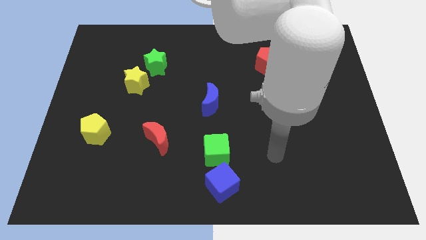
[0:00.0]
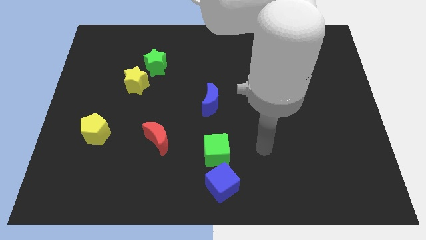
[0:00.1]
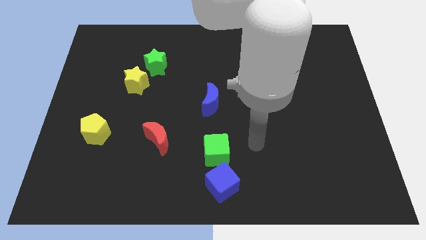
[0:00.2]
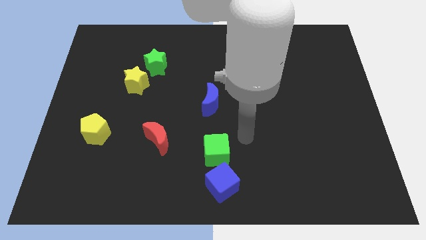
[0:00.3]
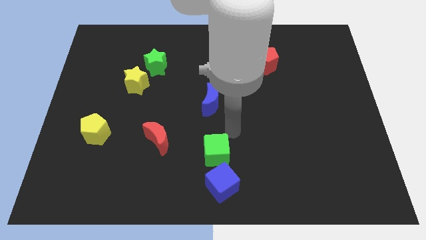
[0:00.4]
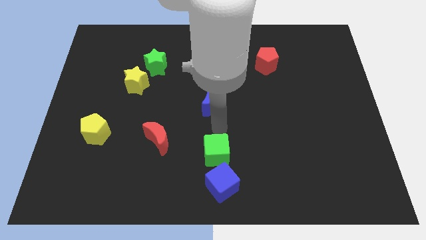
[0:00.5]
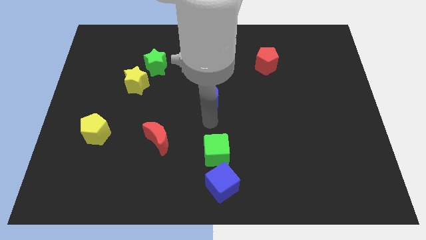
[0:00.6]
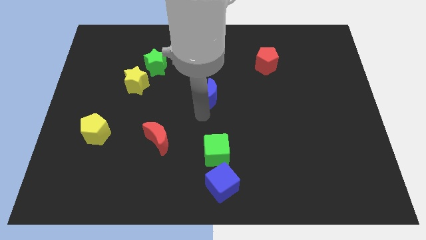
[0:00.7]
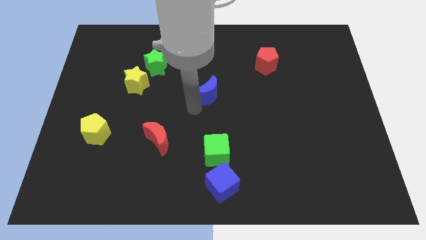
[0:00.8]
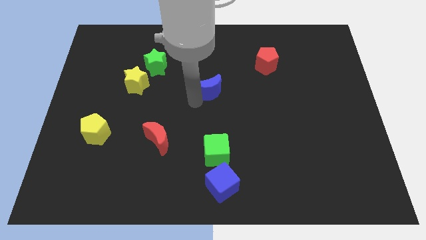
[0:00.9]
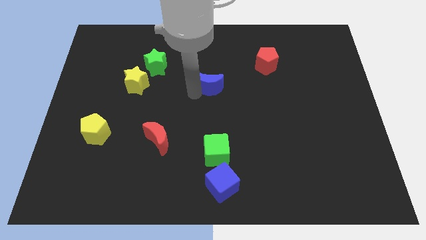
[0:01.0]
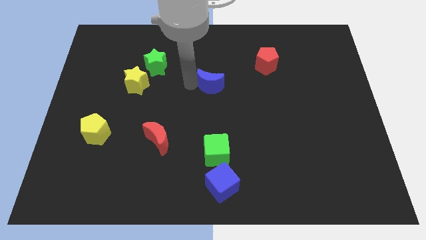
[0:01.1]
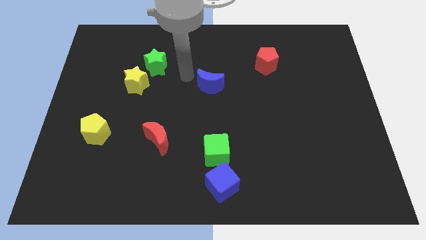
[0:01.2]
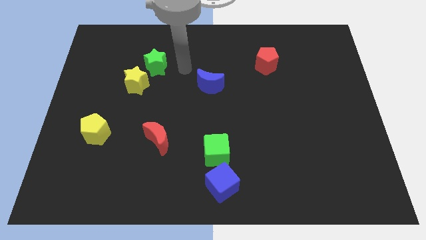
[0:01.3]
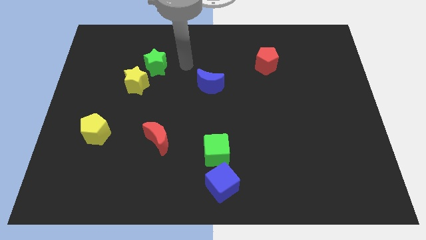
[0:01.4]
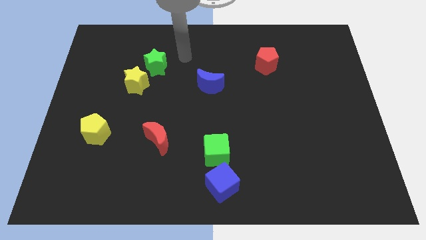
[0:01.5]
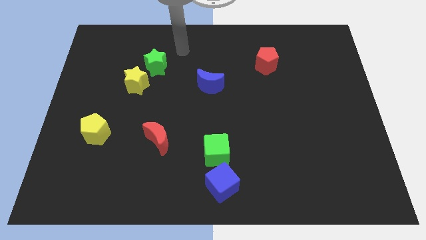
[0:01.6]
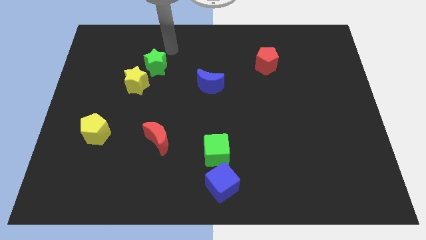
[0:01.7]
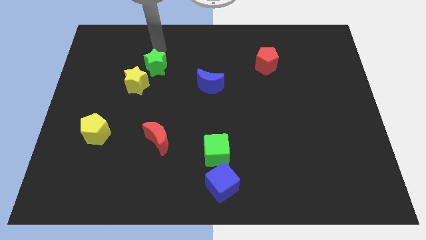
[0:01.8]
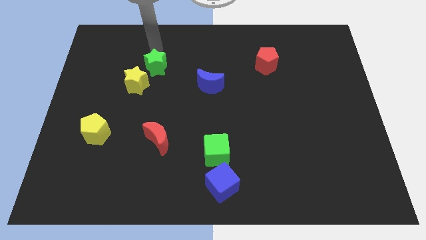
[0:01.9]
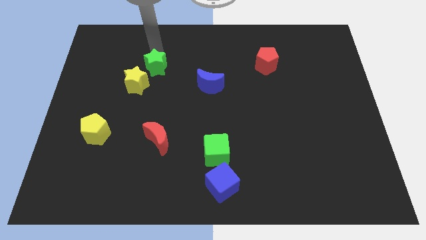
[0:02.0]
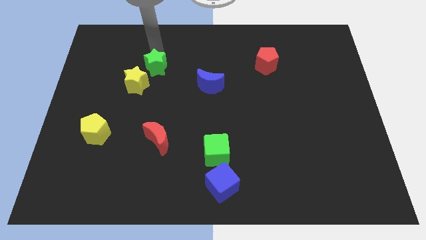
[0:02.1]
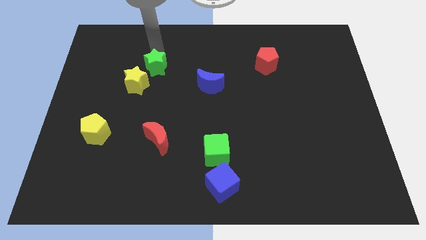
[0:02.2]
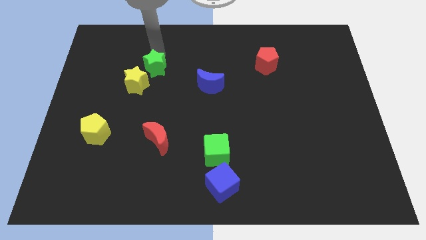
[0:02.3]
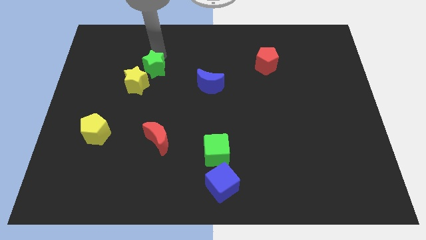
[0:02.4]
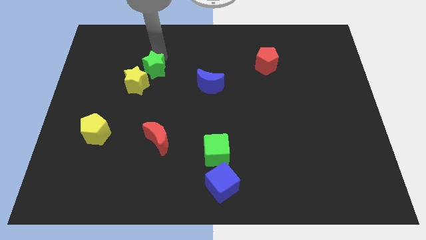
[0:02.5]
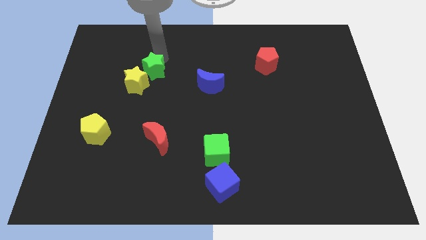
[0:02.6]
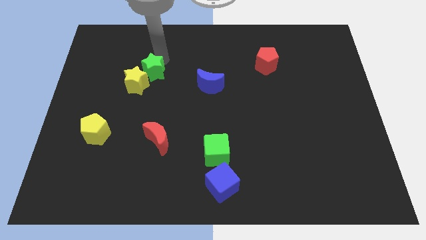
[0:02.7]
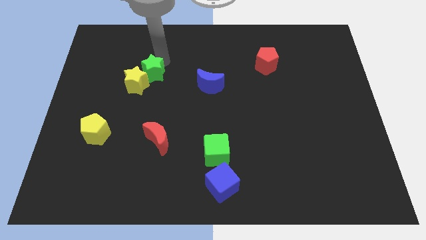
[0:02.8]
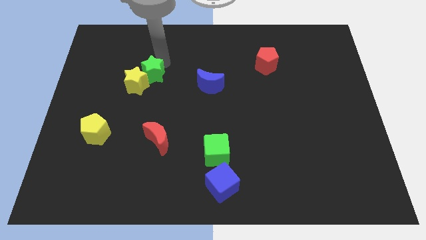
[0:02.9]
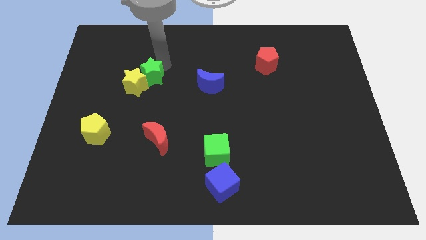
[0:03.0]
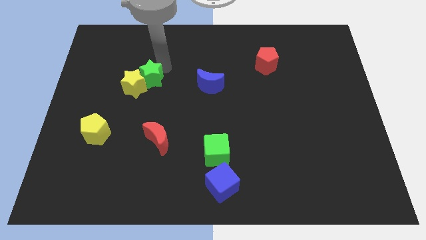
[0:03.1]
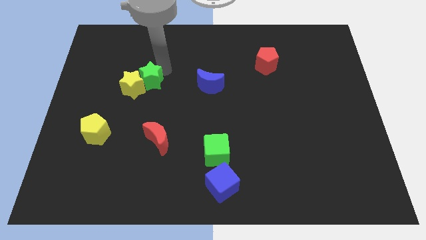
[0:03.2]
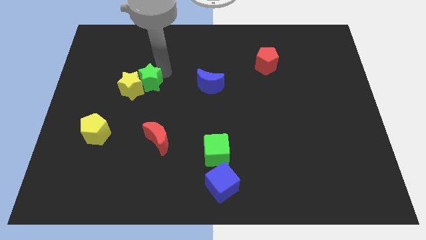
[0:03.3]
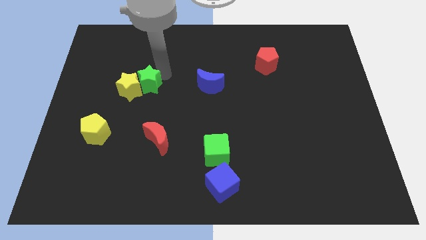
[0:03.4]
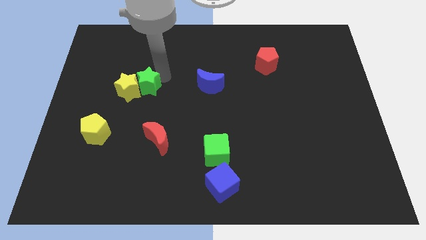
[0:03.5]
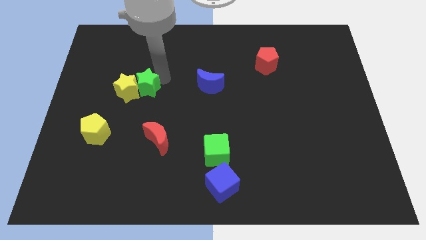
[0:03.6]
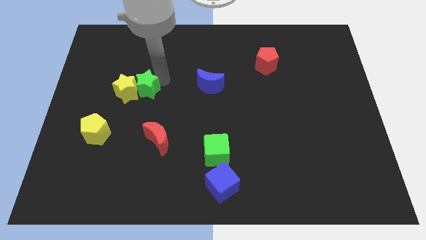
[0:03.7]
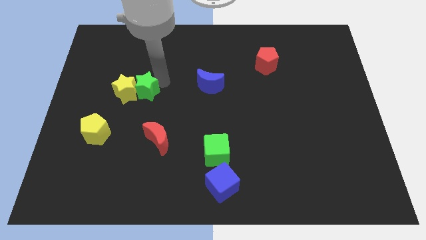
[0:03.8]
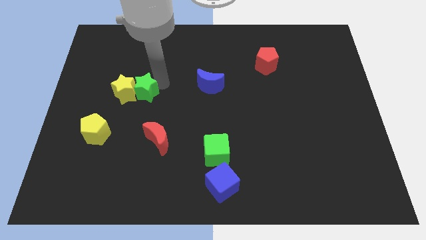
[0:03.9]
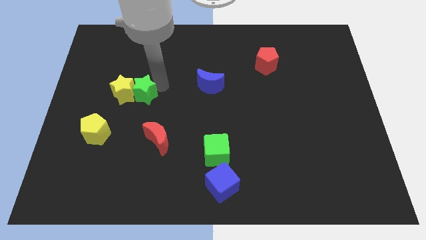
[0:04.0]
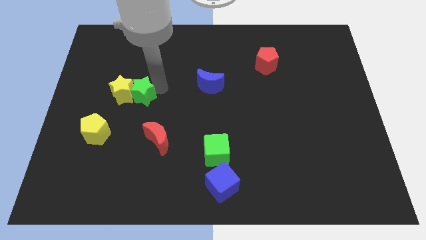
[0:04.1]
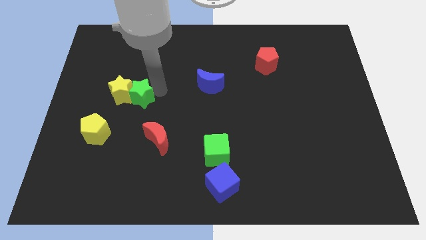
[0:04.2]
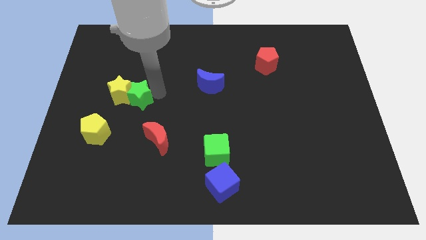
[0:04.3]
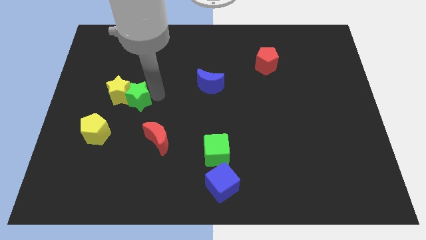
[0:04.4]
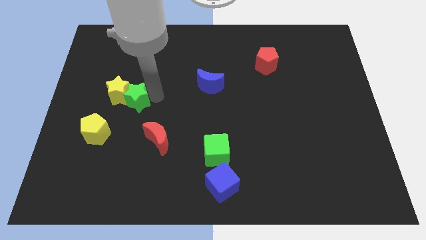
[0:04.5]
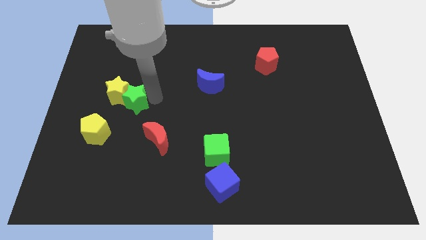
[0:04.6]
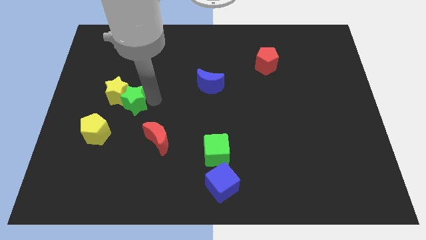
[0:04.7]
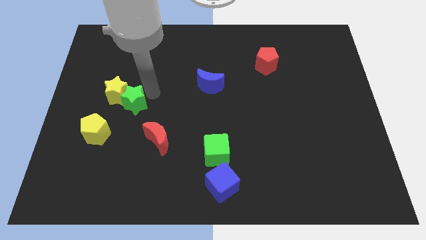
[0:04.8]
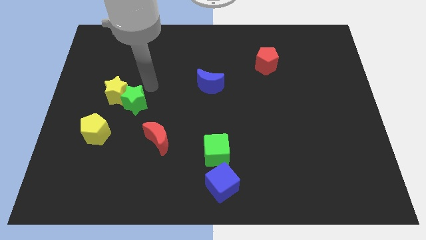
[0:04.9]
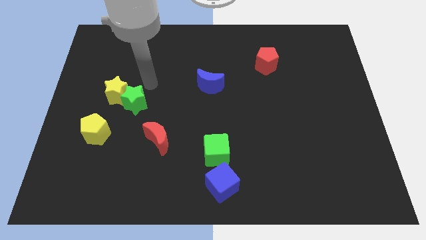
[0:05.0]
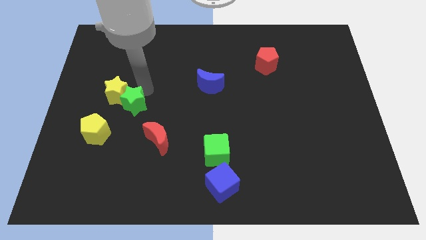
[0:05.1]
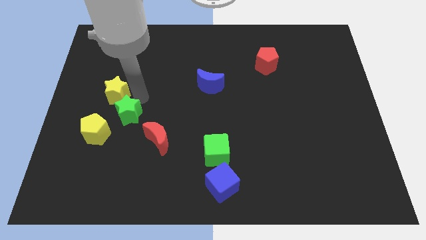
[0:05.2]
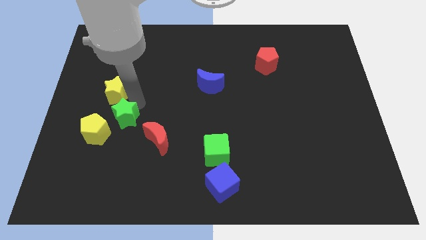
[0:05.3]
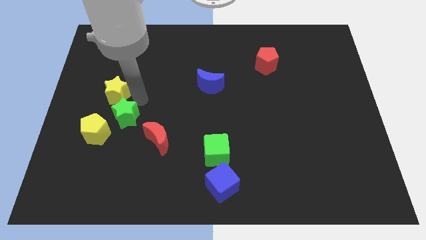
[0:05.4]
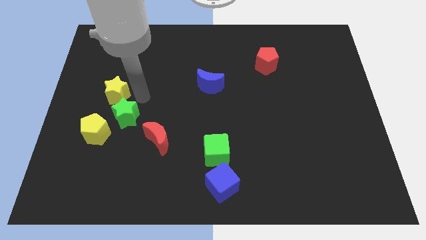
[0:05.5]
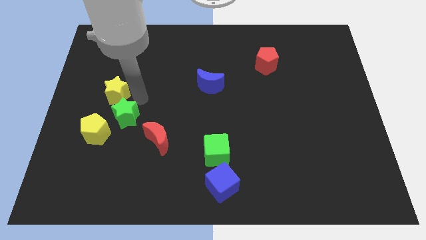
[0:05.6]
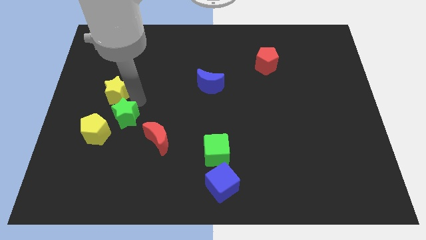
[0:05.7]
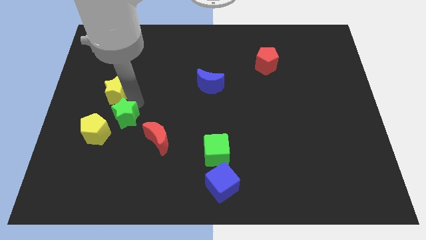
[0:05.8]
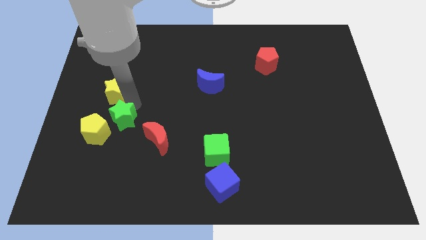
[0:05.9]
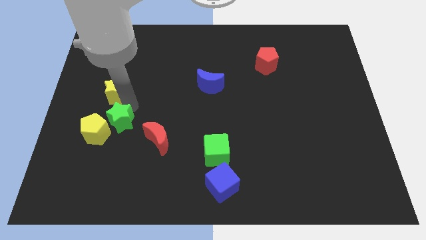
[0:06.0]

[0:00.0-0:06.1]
put the green star just left of the red moon

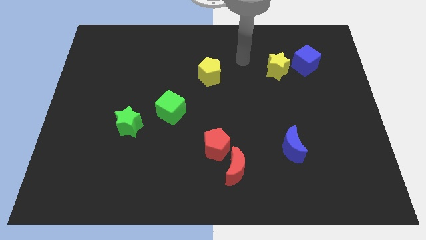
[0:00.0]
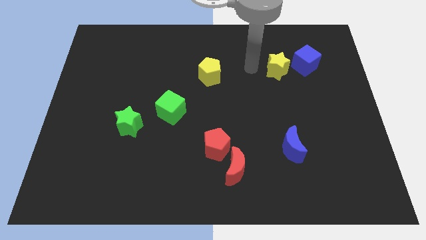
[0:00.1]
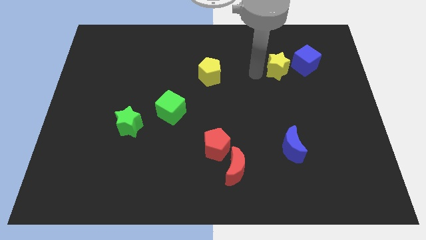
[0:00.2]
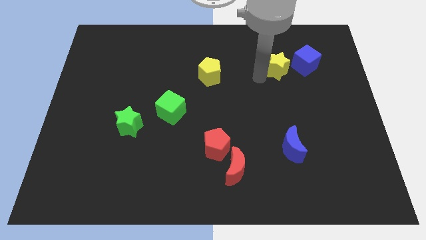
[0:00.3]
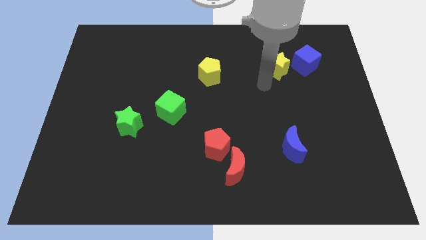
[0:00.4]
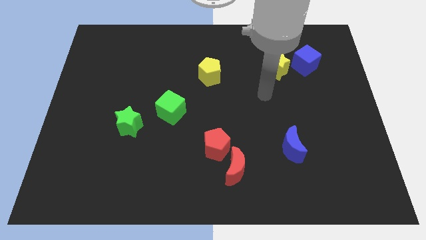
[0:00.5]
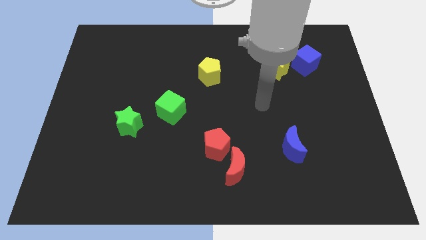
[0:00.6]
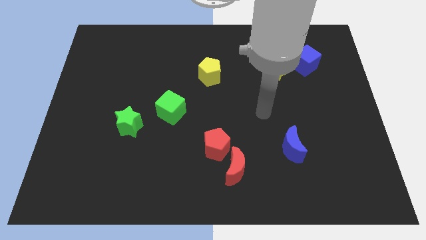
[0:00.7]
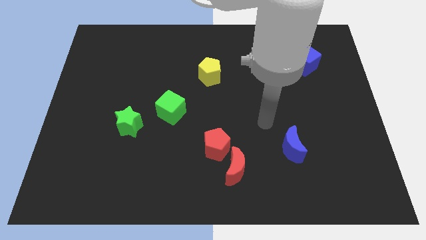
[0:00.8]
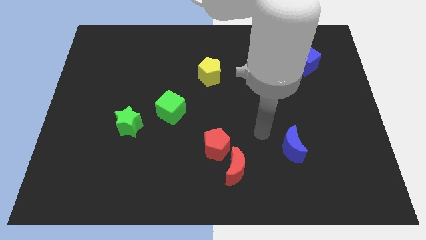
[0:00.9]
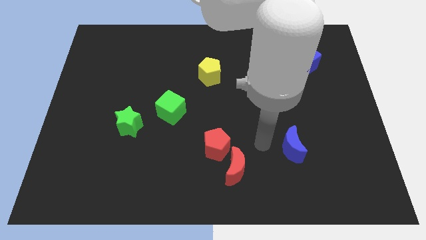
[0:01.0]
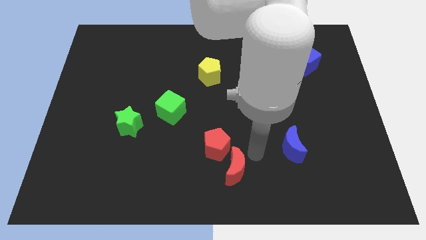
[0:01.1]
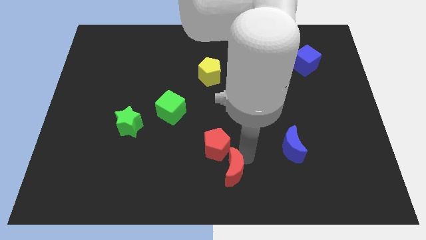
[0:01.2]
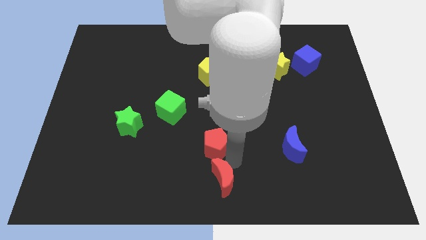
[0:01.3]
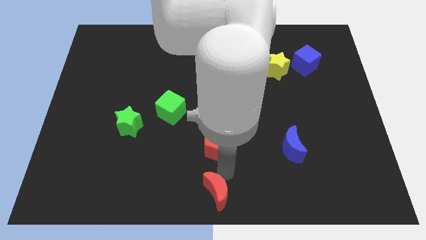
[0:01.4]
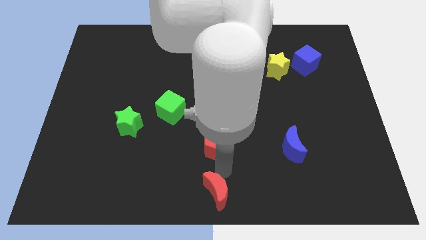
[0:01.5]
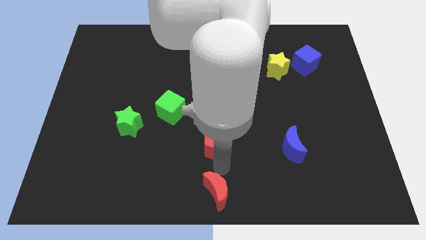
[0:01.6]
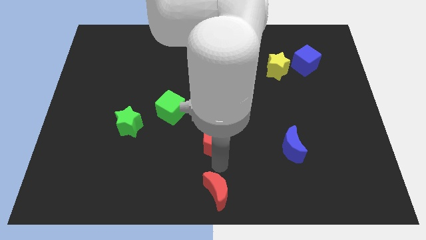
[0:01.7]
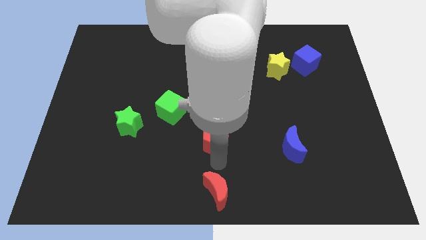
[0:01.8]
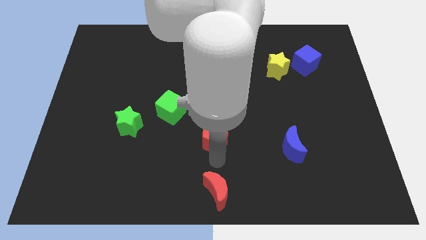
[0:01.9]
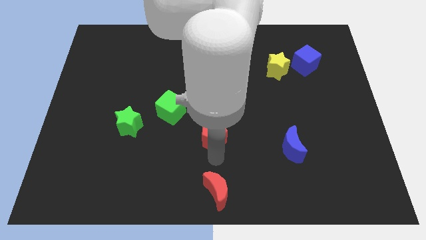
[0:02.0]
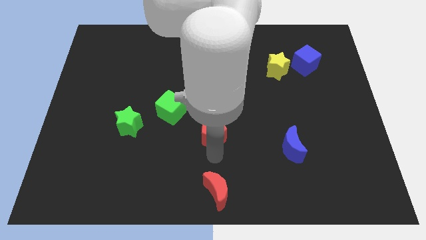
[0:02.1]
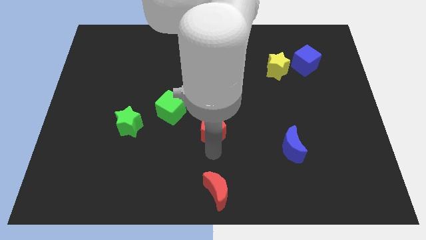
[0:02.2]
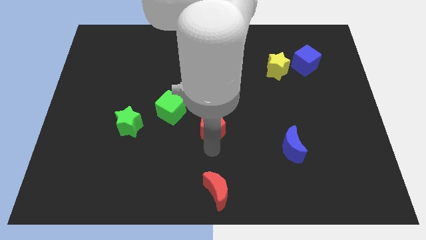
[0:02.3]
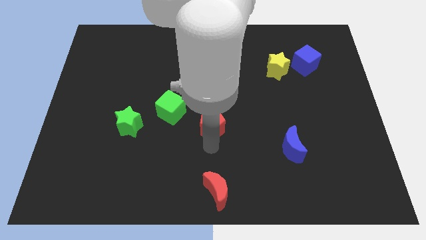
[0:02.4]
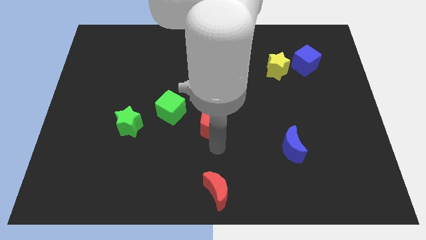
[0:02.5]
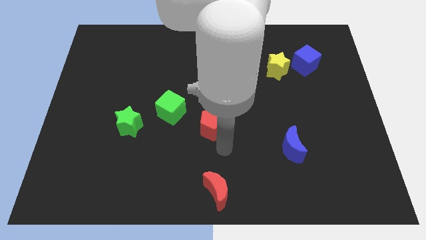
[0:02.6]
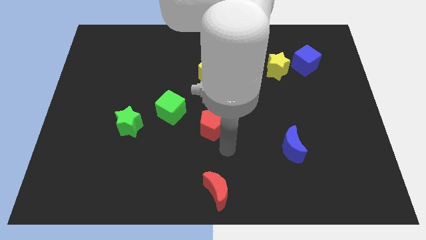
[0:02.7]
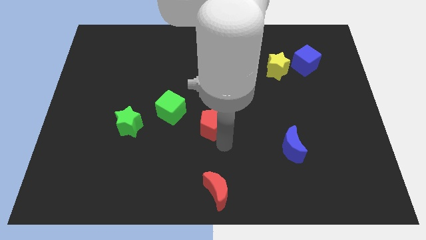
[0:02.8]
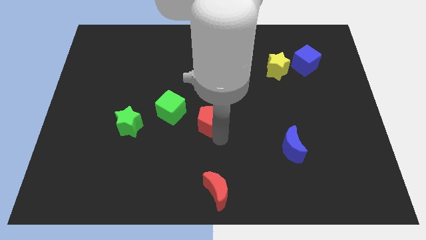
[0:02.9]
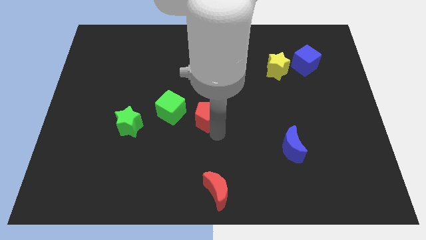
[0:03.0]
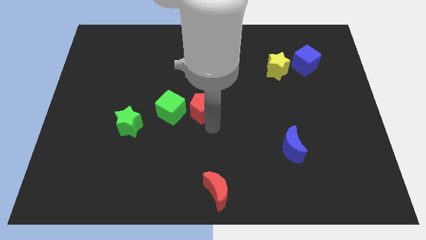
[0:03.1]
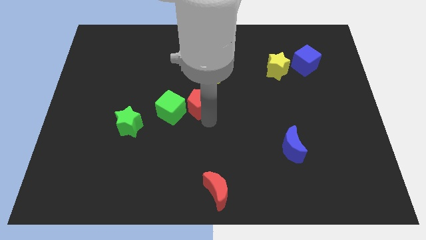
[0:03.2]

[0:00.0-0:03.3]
slide the red pentagon to the top right side of the green cube
